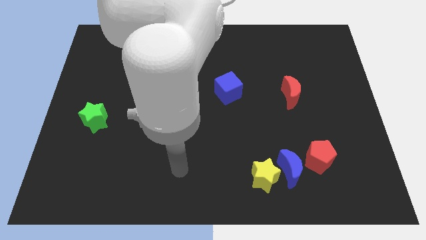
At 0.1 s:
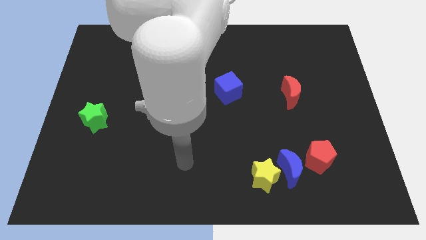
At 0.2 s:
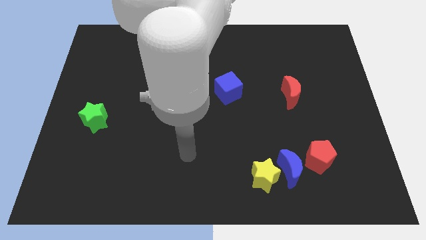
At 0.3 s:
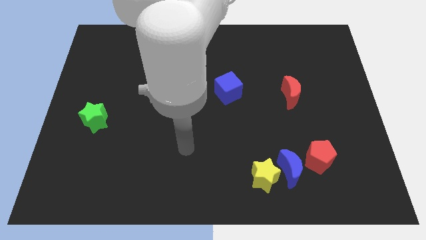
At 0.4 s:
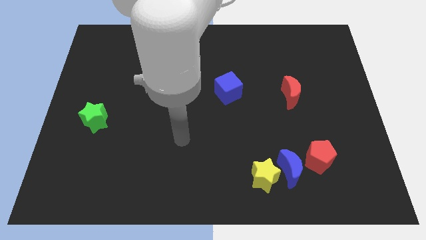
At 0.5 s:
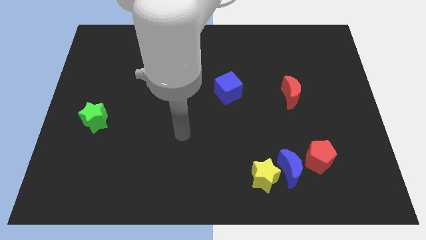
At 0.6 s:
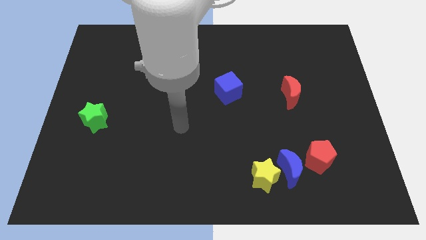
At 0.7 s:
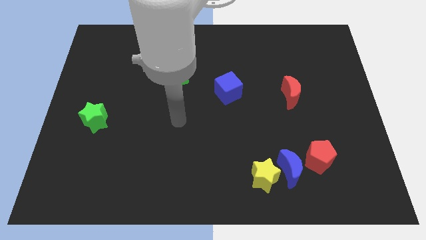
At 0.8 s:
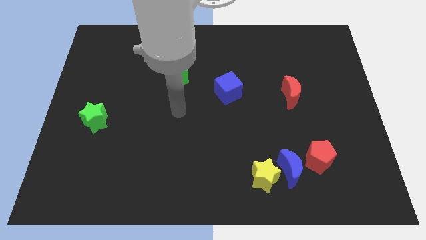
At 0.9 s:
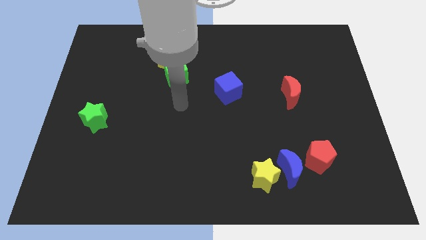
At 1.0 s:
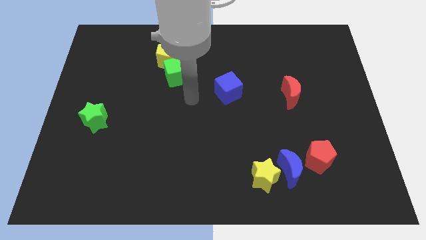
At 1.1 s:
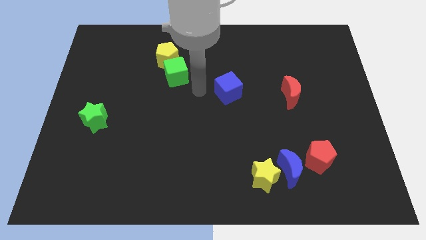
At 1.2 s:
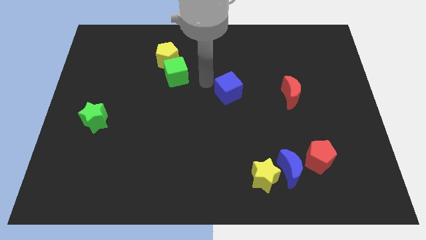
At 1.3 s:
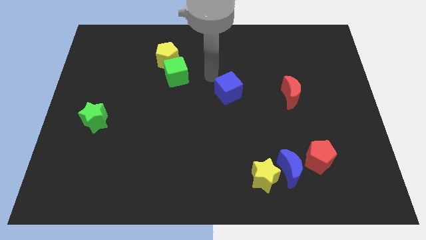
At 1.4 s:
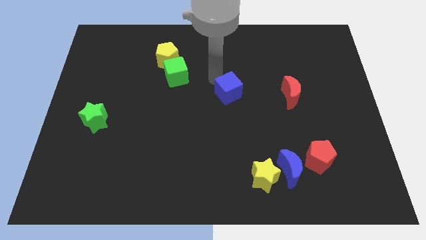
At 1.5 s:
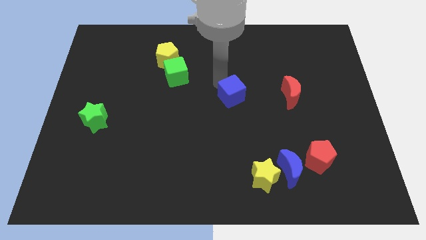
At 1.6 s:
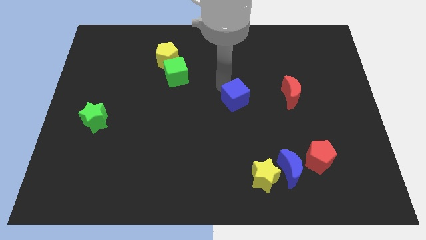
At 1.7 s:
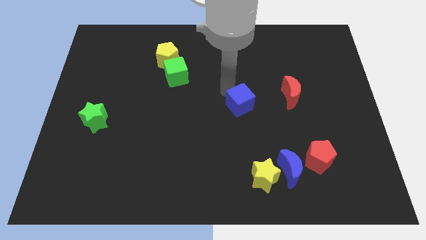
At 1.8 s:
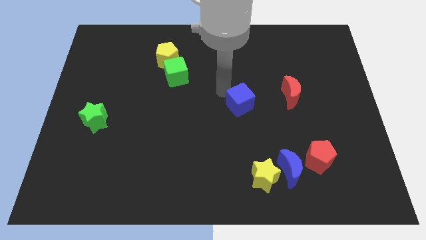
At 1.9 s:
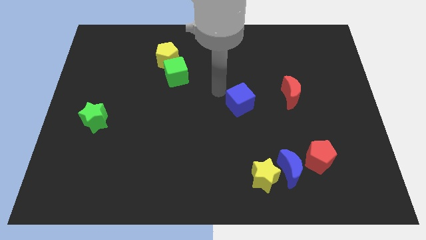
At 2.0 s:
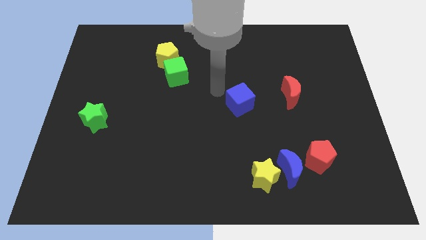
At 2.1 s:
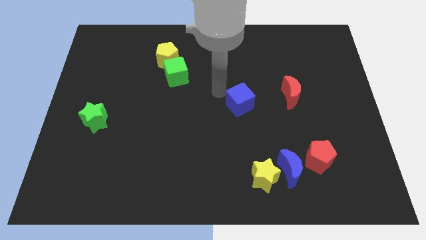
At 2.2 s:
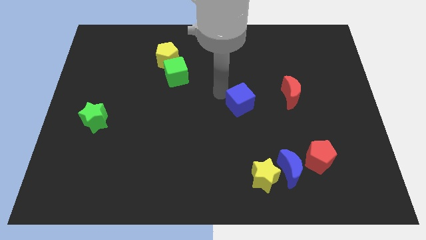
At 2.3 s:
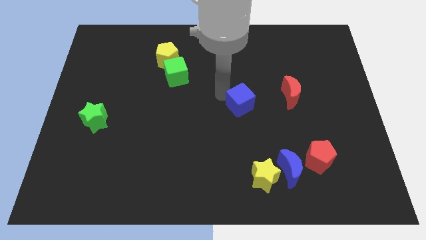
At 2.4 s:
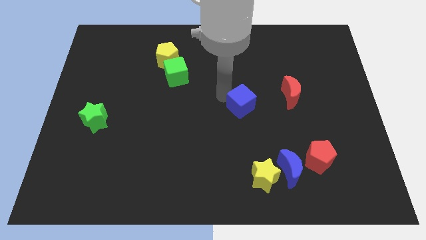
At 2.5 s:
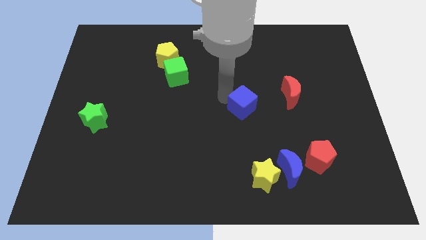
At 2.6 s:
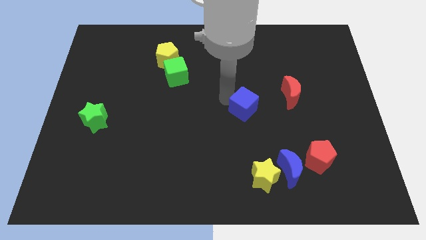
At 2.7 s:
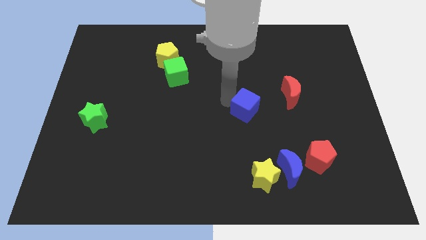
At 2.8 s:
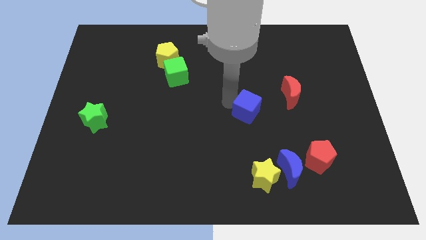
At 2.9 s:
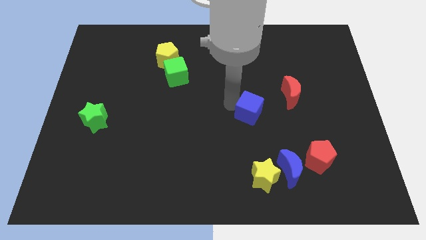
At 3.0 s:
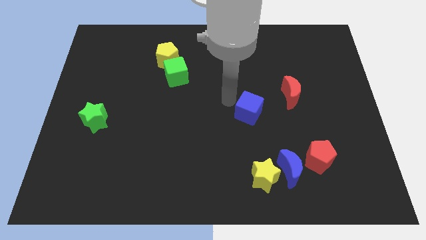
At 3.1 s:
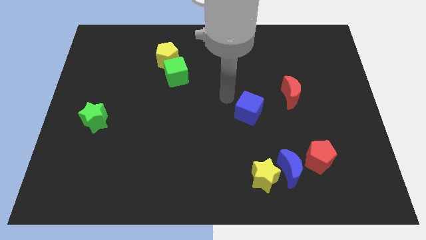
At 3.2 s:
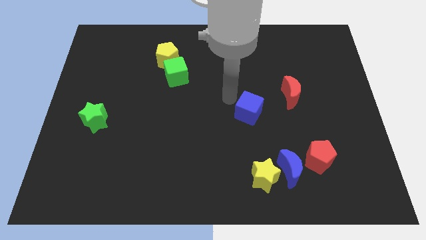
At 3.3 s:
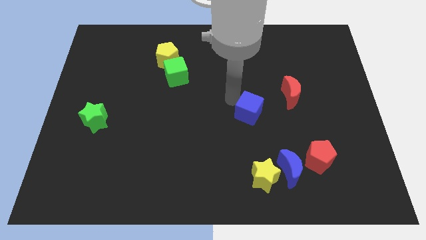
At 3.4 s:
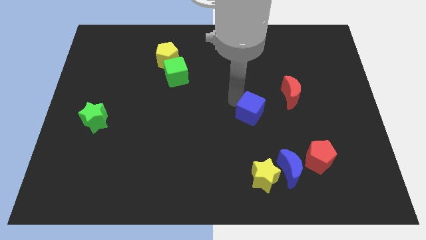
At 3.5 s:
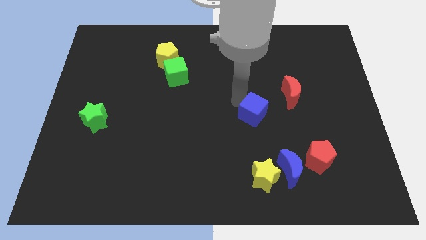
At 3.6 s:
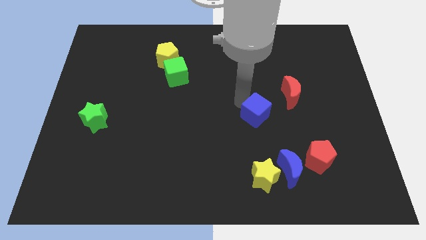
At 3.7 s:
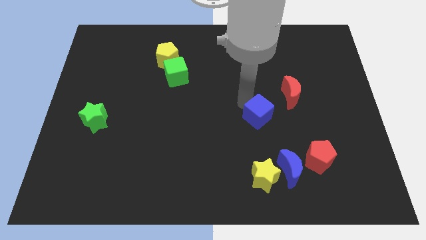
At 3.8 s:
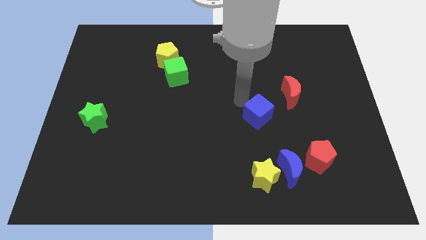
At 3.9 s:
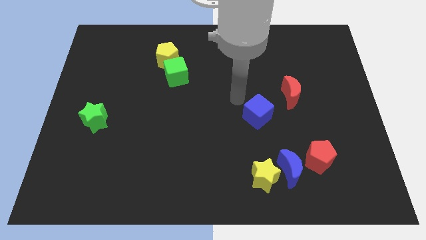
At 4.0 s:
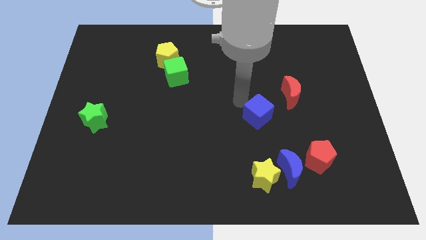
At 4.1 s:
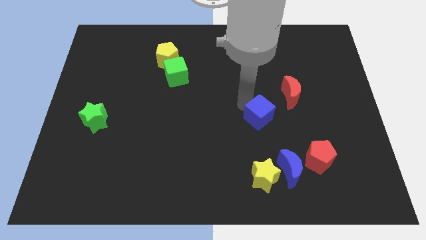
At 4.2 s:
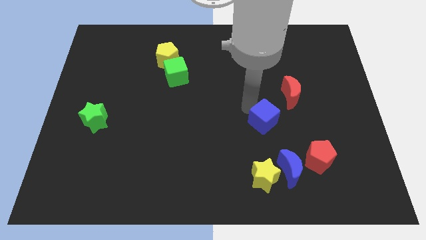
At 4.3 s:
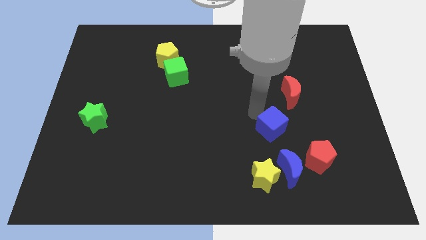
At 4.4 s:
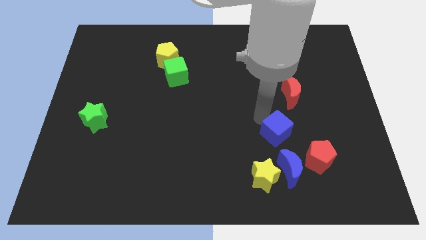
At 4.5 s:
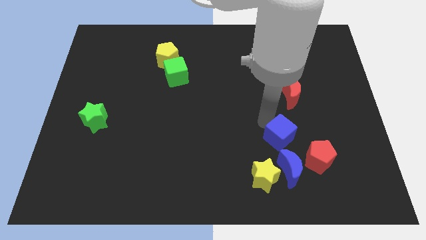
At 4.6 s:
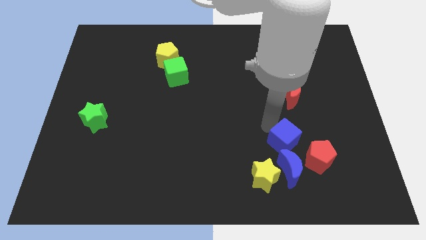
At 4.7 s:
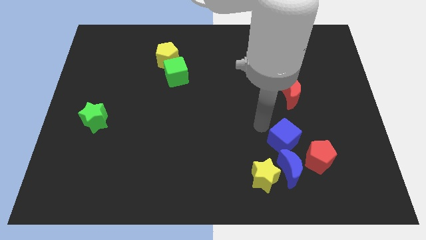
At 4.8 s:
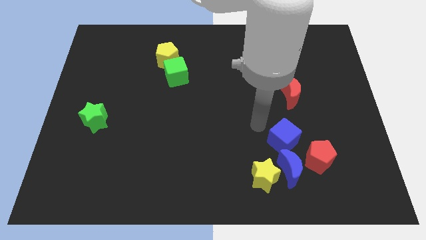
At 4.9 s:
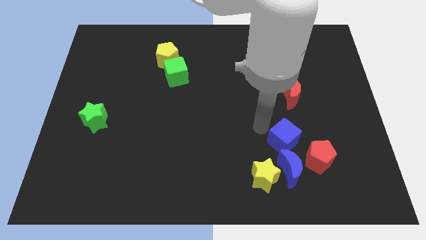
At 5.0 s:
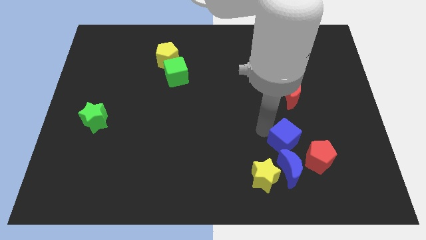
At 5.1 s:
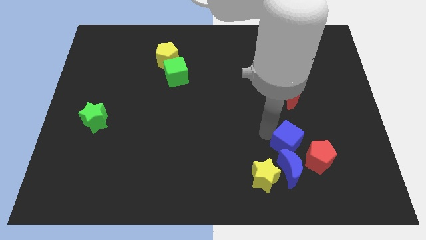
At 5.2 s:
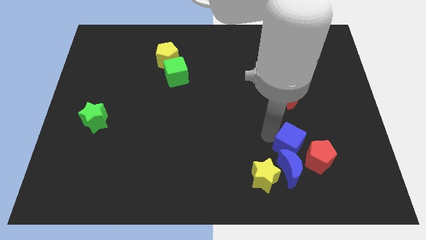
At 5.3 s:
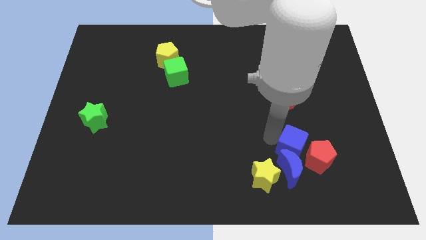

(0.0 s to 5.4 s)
push the blue cube to the red pentagon

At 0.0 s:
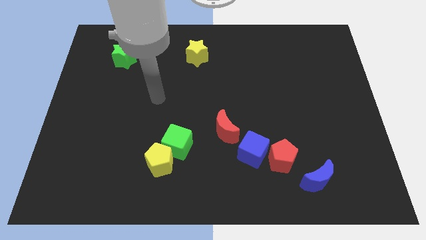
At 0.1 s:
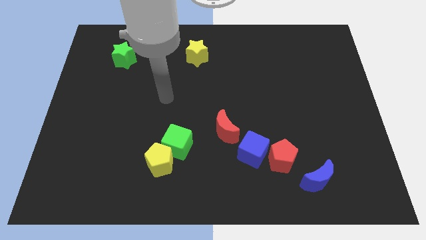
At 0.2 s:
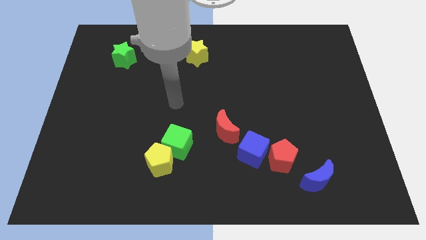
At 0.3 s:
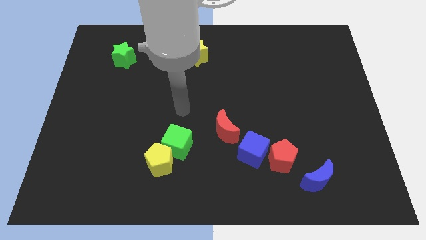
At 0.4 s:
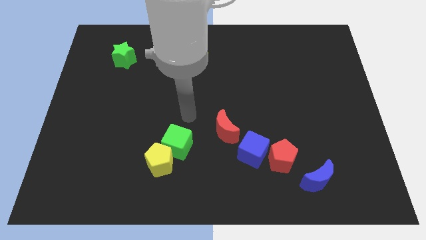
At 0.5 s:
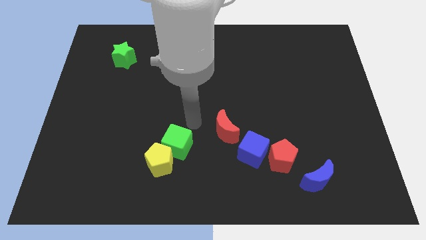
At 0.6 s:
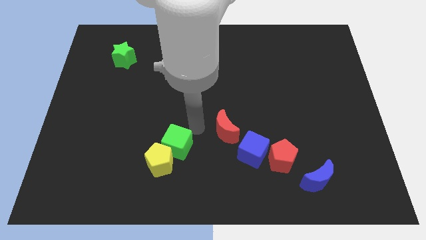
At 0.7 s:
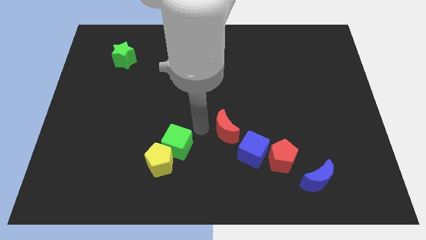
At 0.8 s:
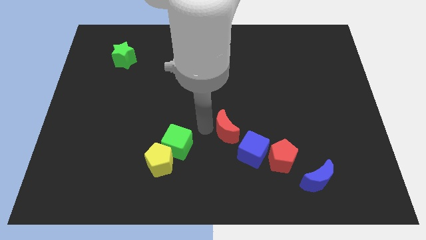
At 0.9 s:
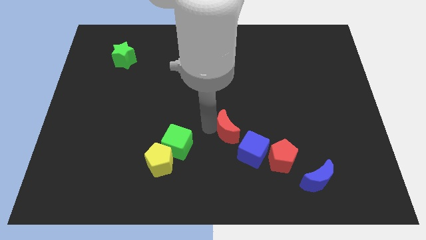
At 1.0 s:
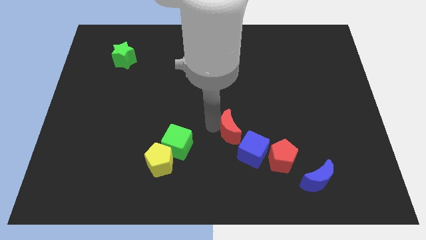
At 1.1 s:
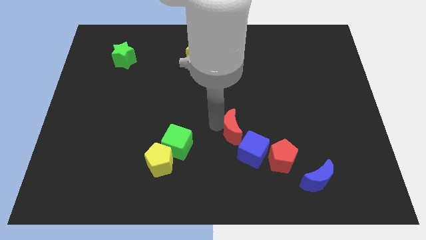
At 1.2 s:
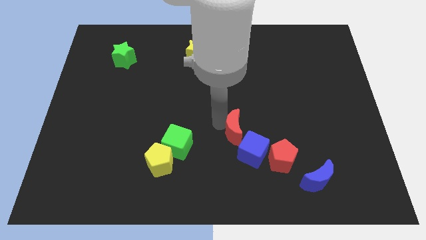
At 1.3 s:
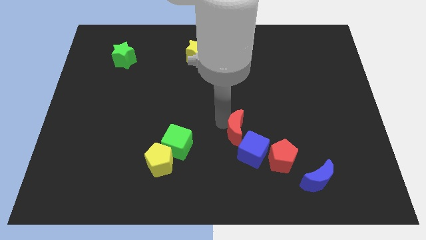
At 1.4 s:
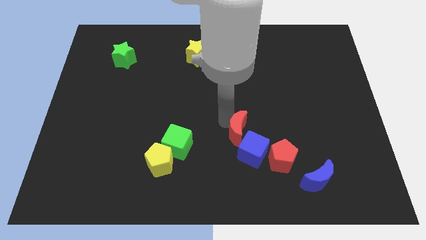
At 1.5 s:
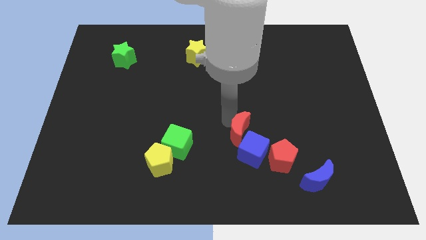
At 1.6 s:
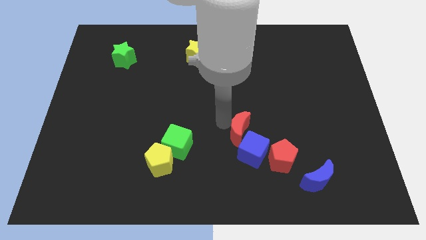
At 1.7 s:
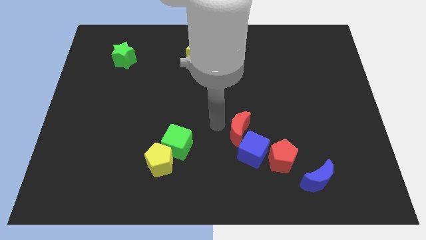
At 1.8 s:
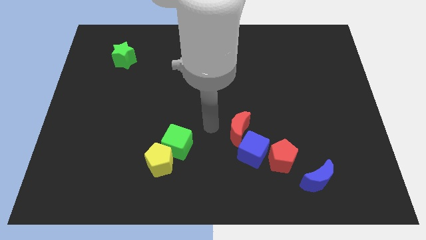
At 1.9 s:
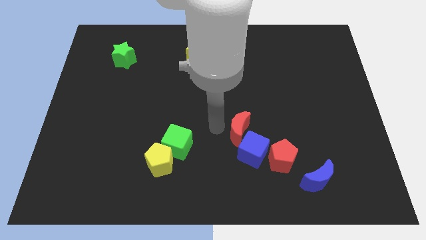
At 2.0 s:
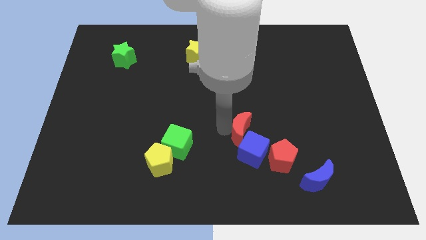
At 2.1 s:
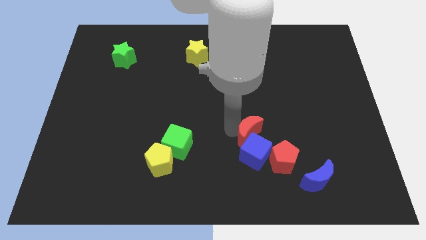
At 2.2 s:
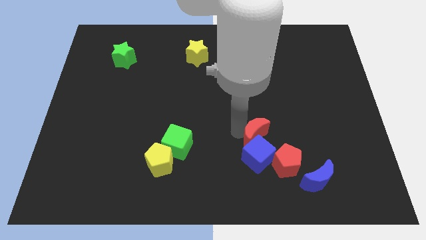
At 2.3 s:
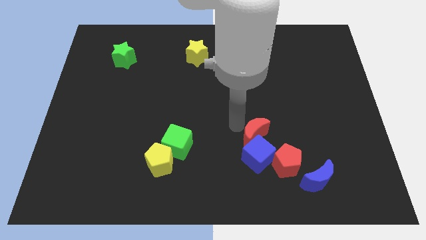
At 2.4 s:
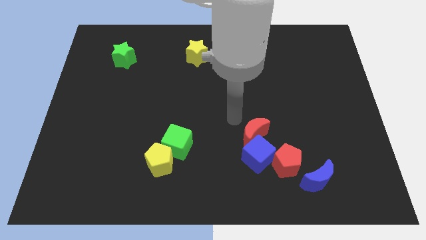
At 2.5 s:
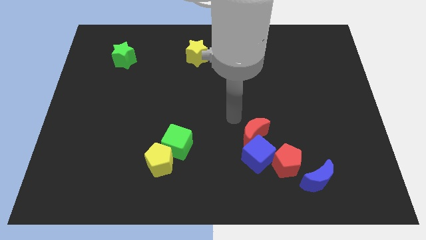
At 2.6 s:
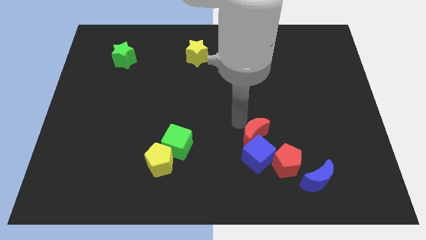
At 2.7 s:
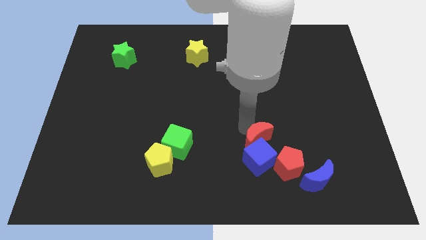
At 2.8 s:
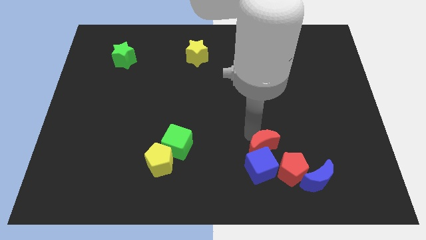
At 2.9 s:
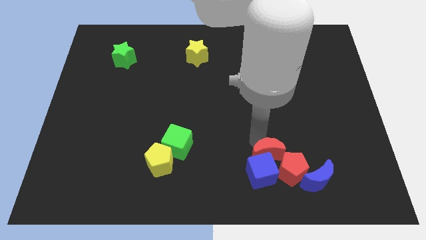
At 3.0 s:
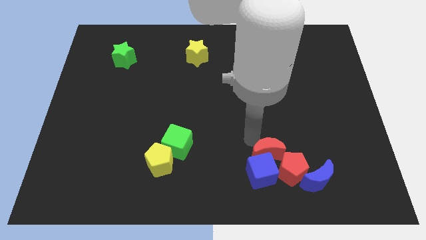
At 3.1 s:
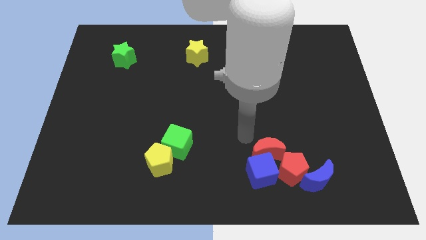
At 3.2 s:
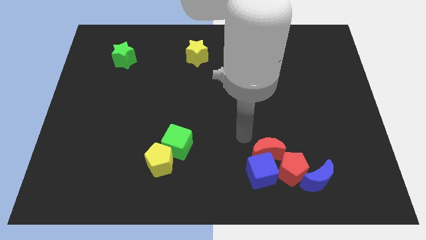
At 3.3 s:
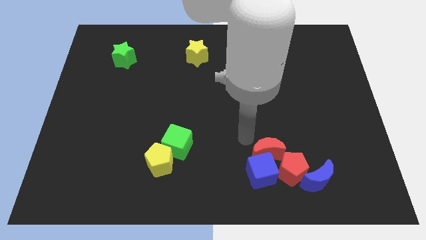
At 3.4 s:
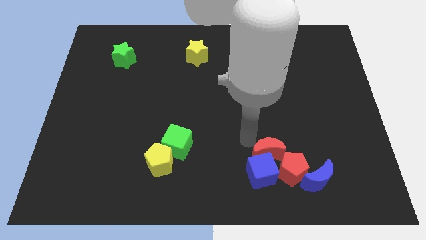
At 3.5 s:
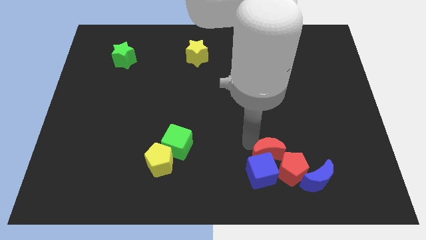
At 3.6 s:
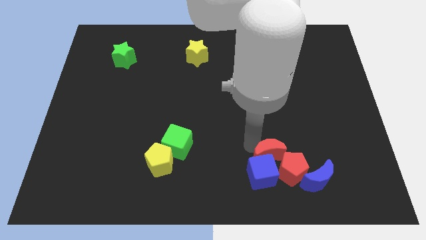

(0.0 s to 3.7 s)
put the red moon close to the red pentagon
